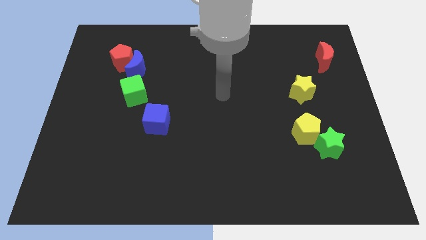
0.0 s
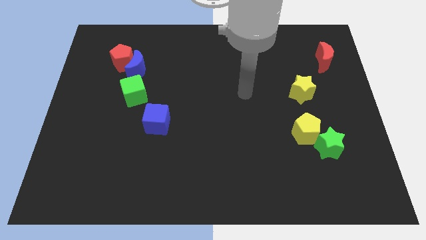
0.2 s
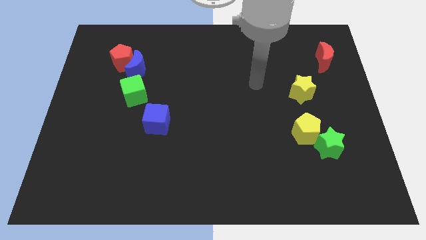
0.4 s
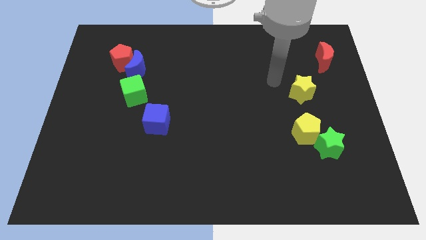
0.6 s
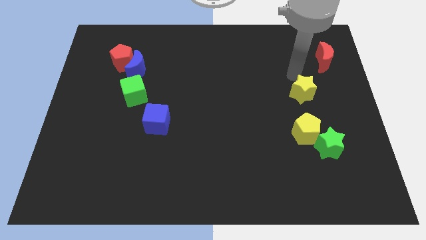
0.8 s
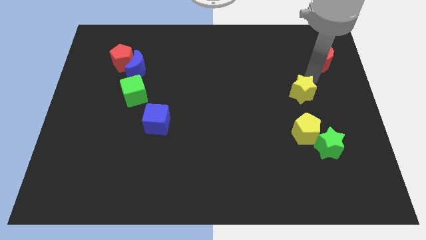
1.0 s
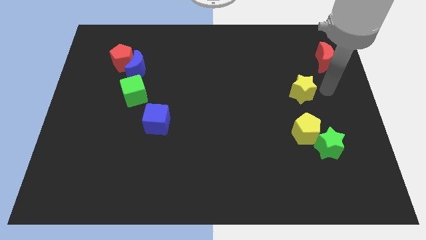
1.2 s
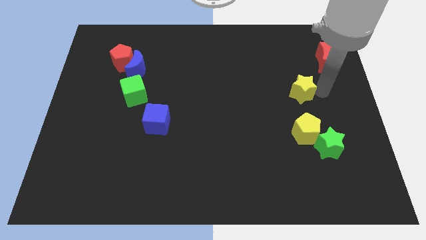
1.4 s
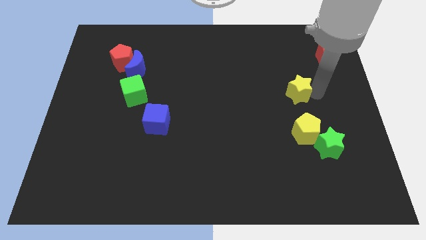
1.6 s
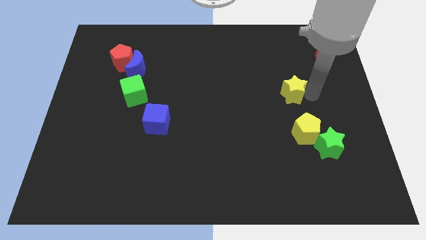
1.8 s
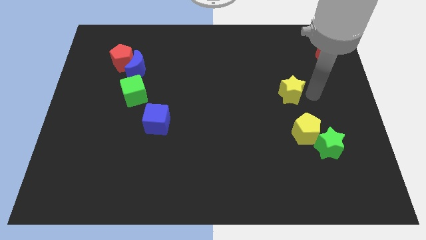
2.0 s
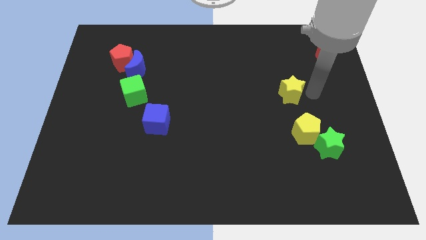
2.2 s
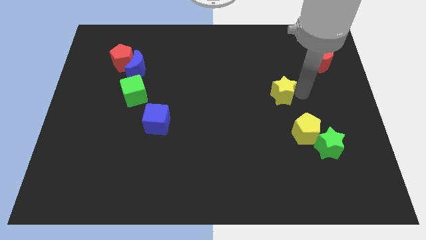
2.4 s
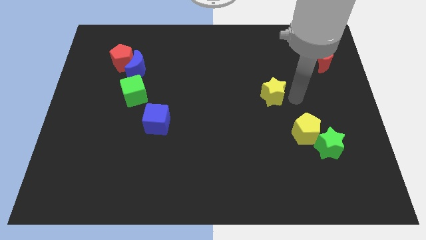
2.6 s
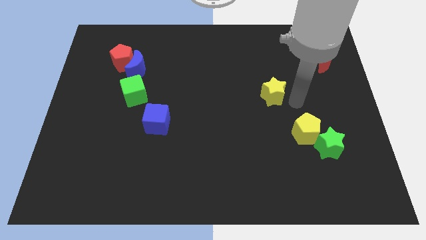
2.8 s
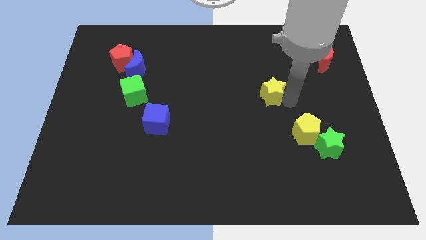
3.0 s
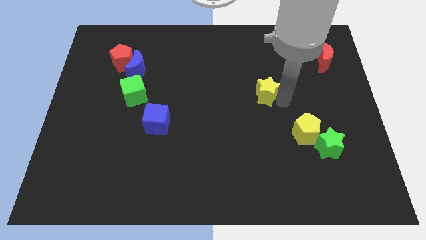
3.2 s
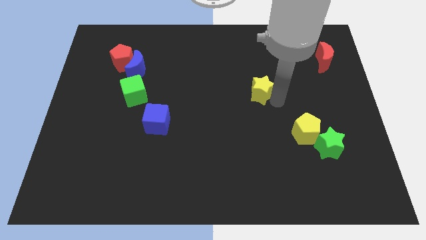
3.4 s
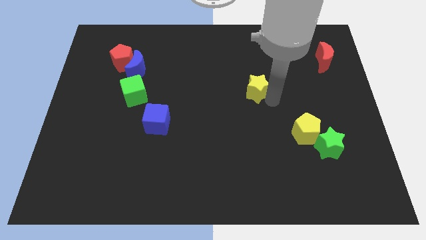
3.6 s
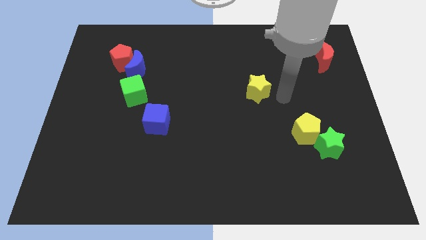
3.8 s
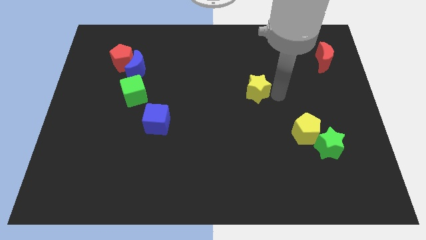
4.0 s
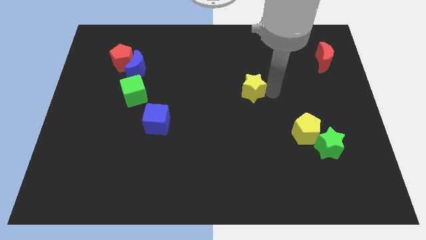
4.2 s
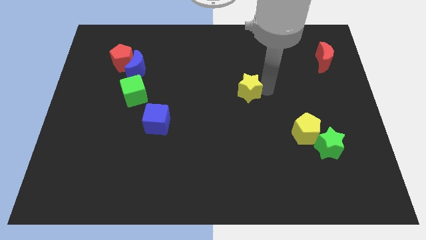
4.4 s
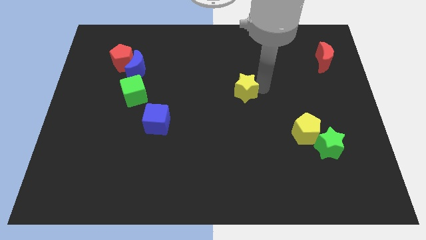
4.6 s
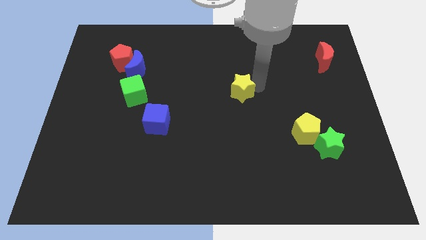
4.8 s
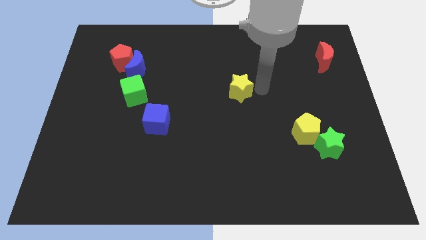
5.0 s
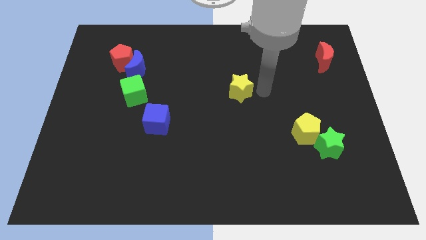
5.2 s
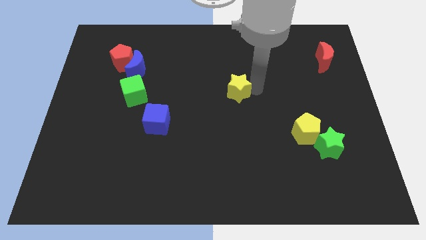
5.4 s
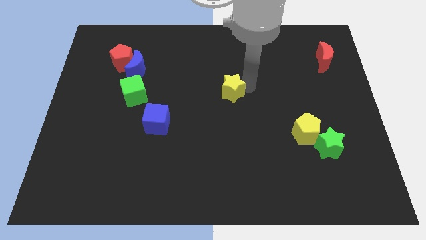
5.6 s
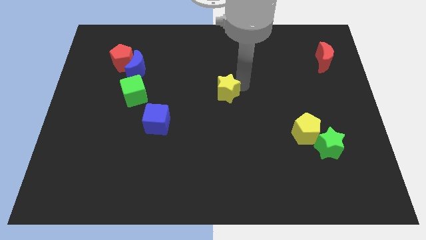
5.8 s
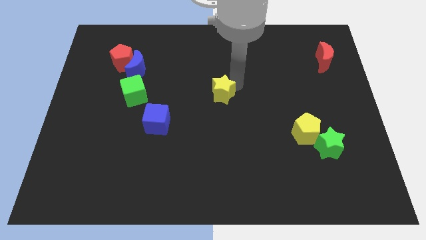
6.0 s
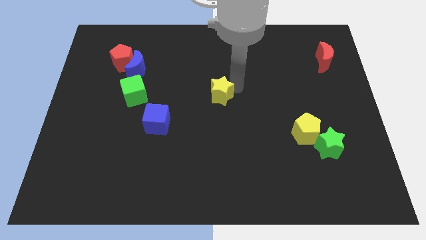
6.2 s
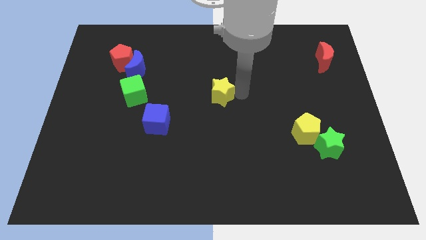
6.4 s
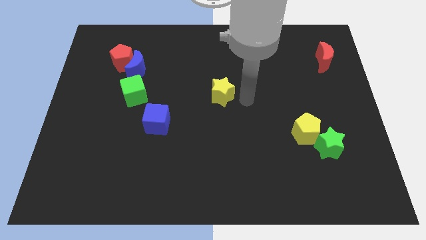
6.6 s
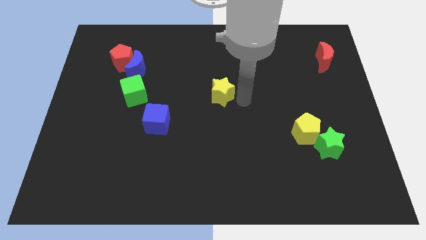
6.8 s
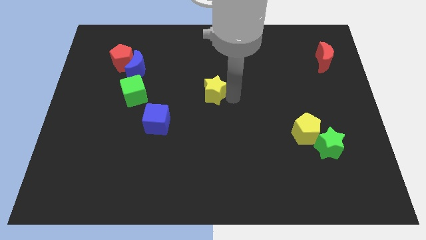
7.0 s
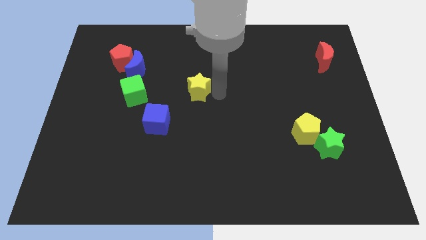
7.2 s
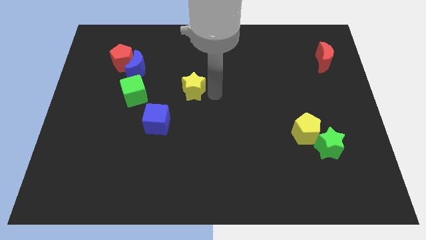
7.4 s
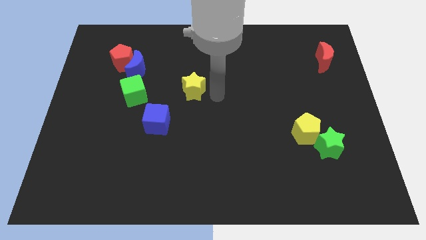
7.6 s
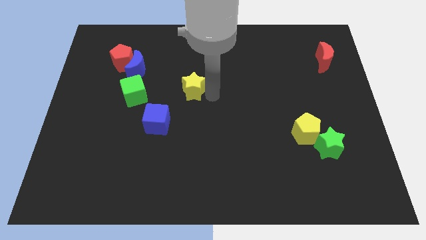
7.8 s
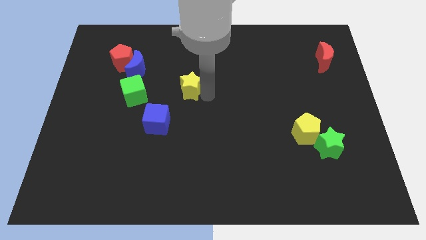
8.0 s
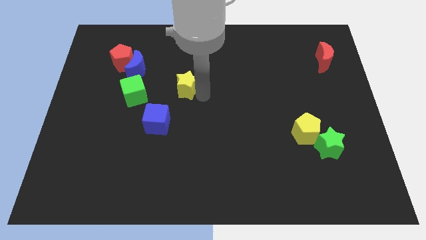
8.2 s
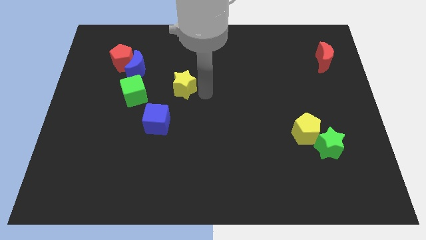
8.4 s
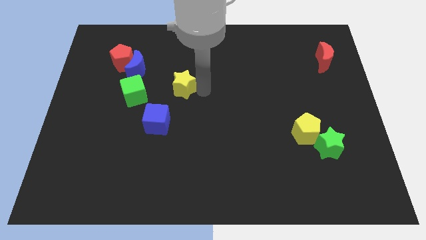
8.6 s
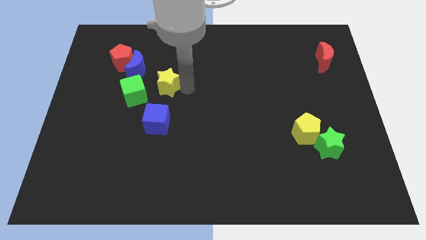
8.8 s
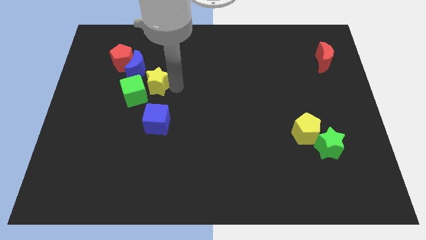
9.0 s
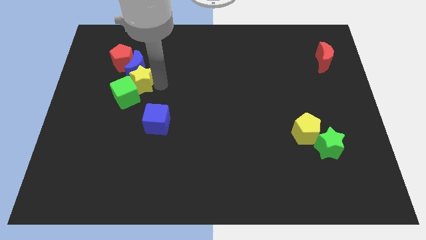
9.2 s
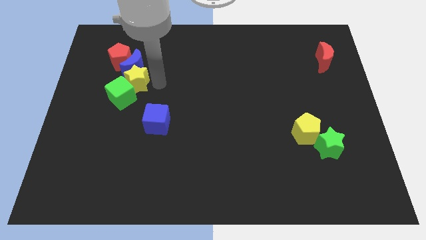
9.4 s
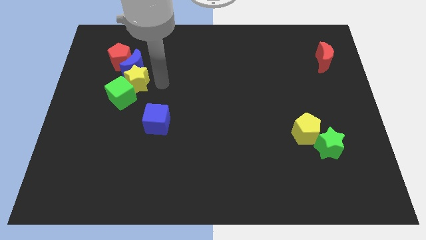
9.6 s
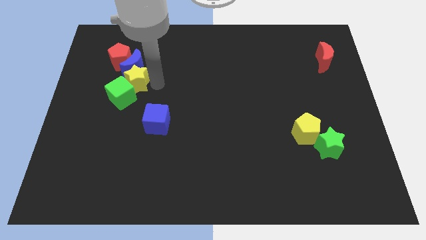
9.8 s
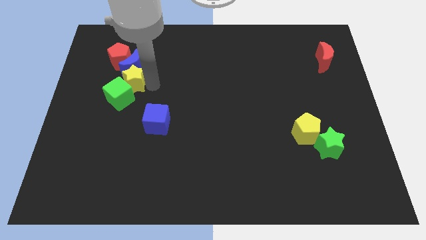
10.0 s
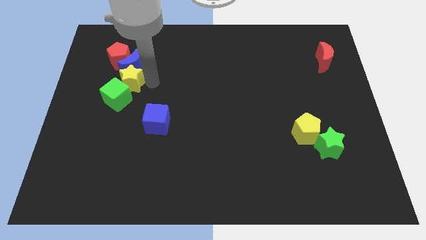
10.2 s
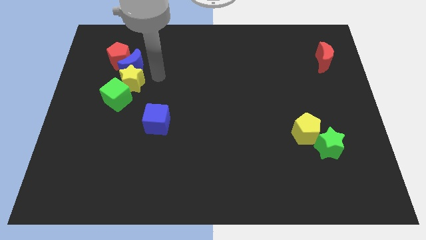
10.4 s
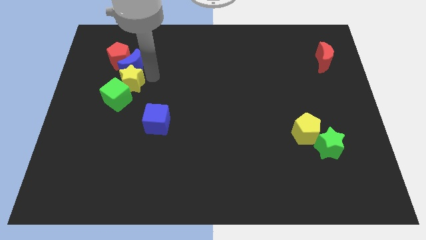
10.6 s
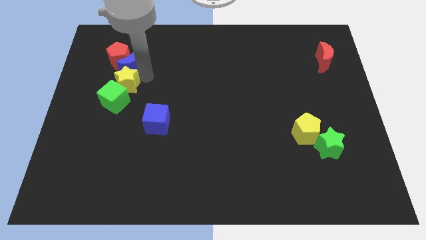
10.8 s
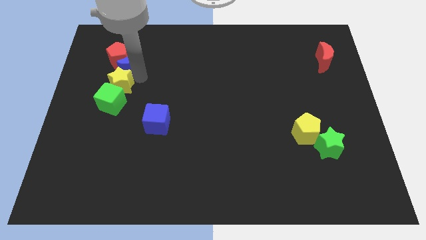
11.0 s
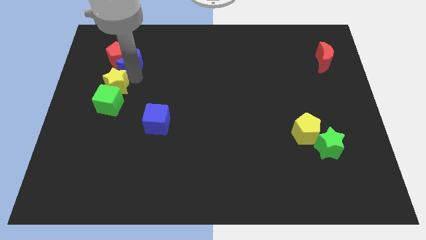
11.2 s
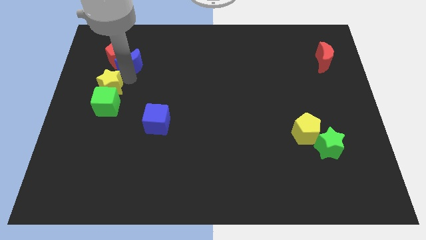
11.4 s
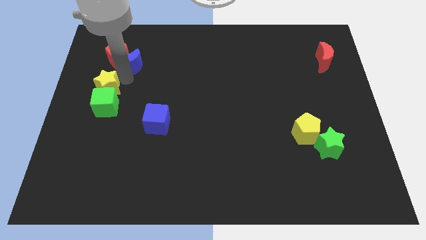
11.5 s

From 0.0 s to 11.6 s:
move the yellow star to the center left

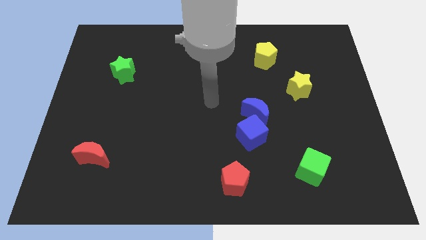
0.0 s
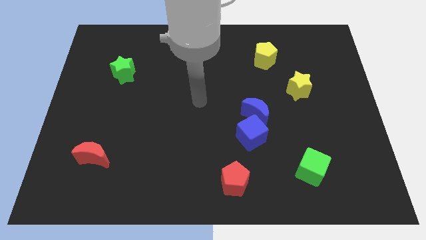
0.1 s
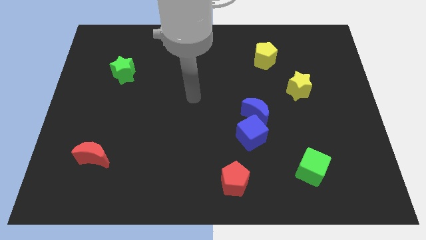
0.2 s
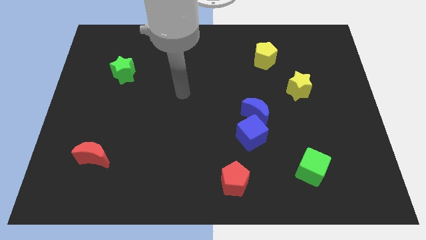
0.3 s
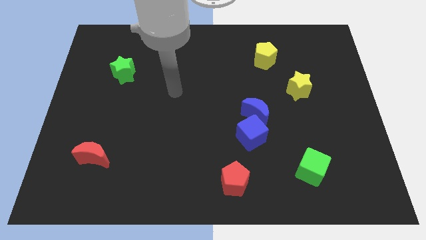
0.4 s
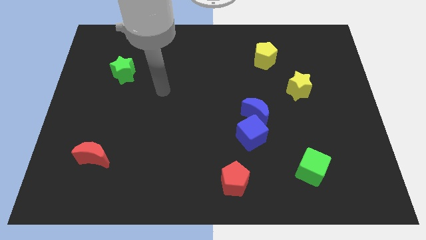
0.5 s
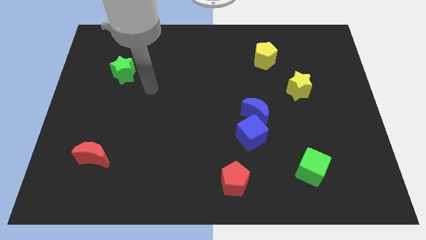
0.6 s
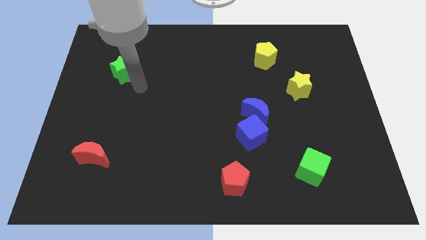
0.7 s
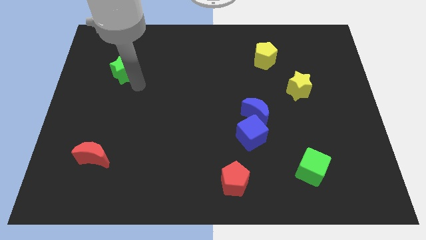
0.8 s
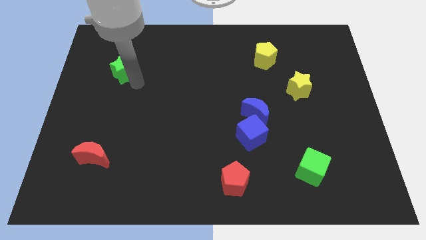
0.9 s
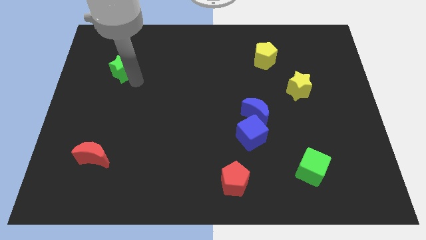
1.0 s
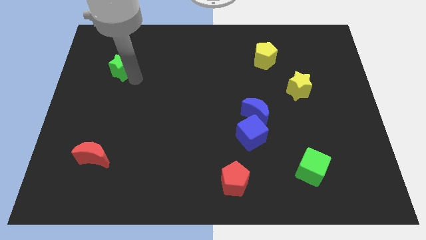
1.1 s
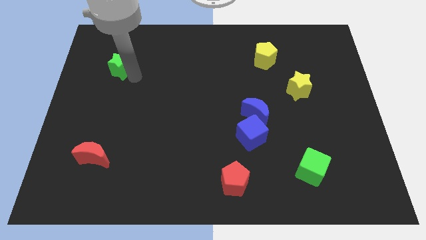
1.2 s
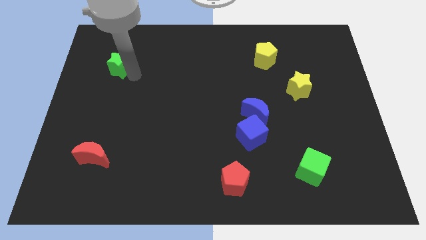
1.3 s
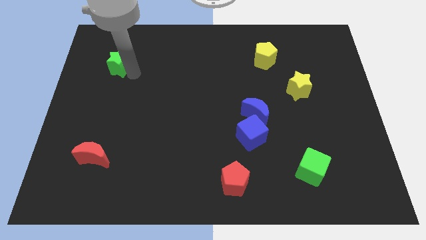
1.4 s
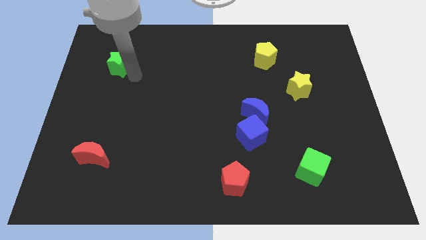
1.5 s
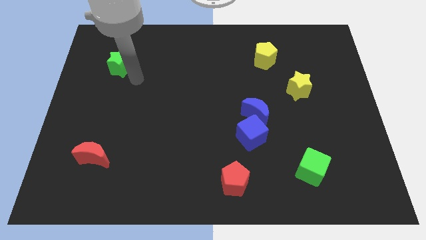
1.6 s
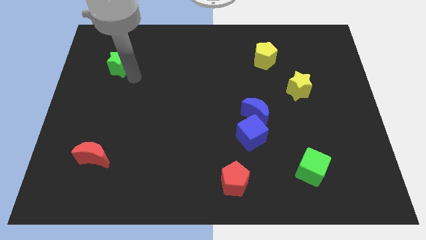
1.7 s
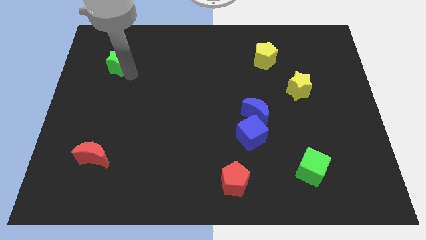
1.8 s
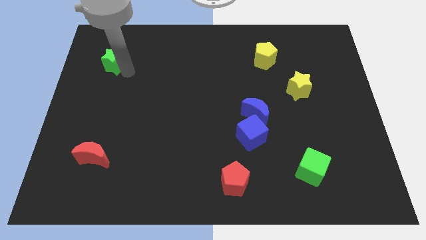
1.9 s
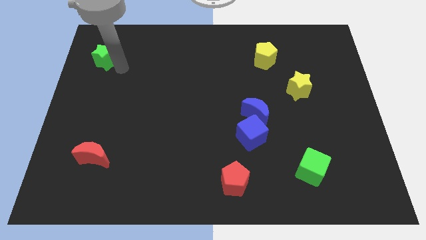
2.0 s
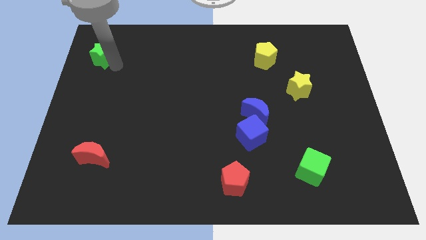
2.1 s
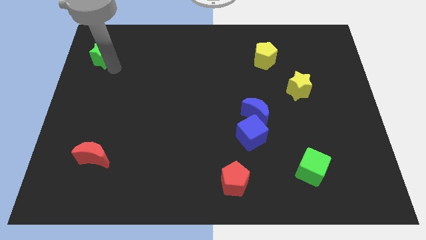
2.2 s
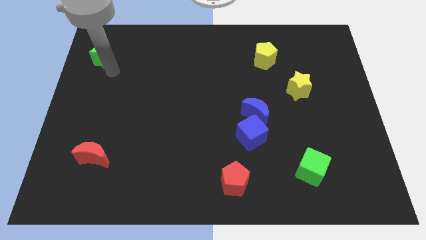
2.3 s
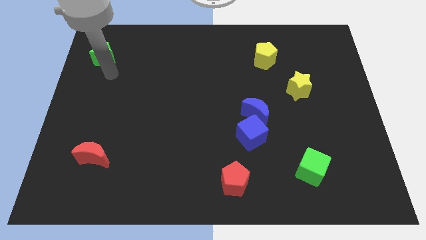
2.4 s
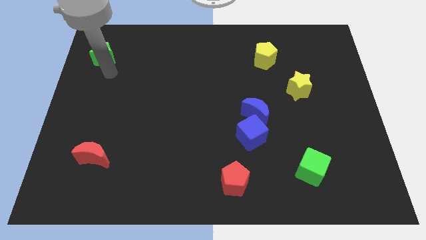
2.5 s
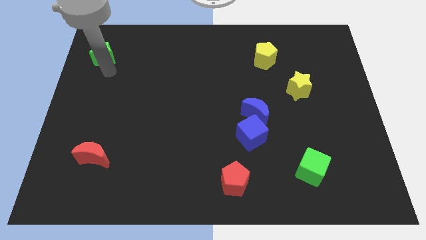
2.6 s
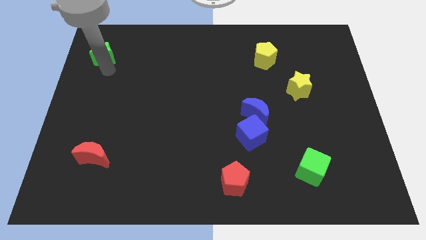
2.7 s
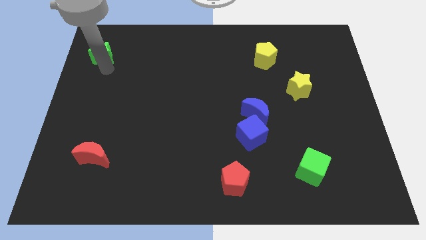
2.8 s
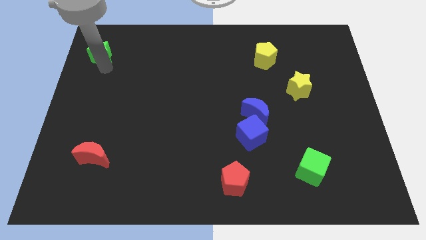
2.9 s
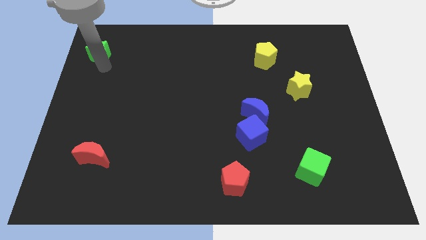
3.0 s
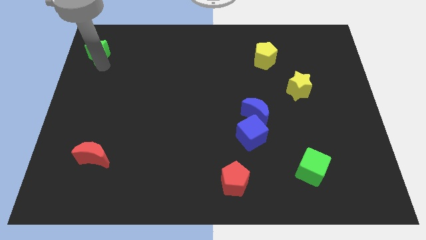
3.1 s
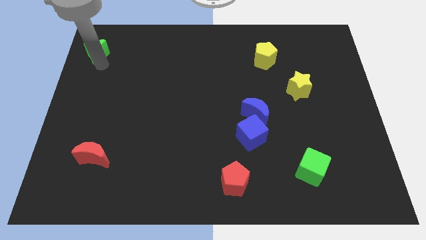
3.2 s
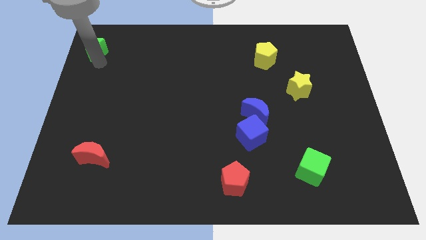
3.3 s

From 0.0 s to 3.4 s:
put the green star to the top left corner
